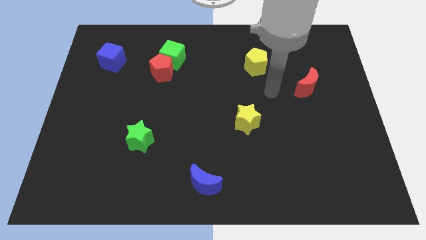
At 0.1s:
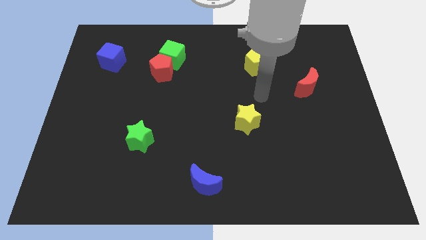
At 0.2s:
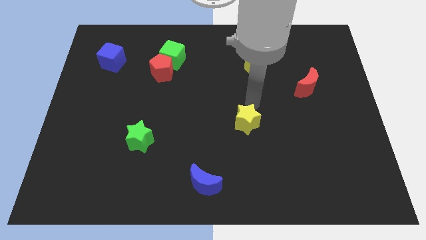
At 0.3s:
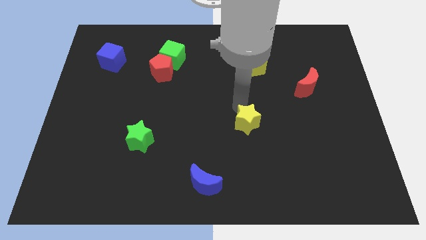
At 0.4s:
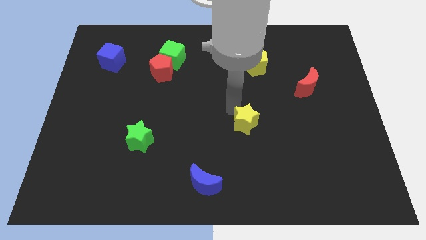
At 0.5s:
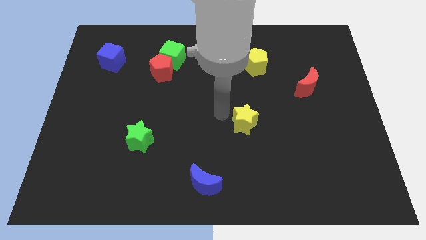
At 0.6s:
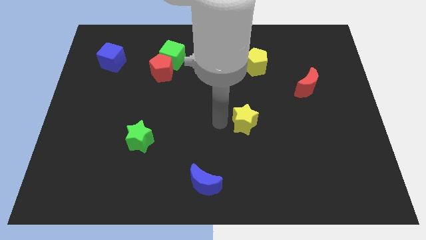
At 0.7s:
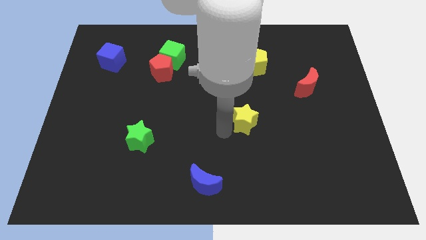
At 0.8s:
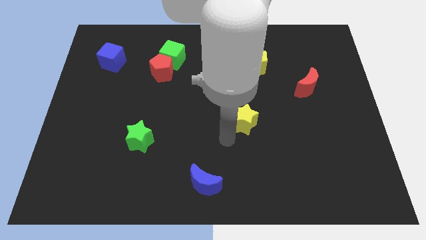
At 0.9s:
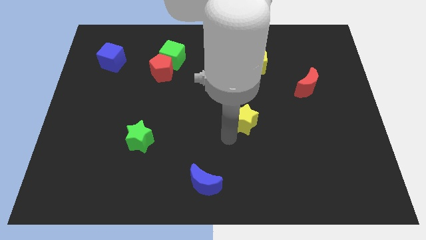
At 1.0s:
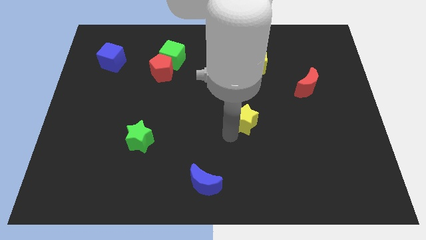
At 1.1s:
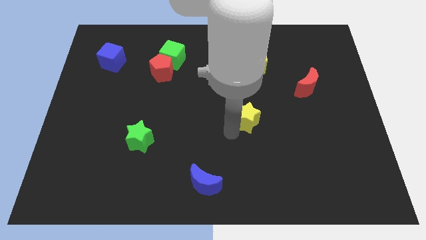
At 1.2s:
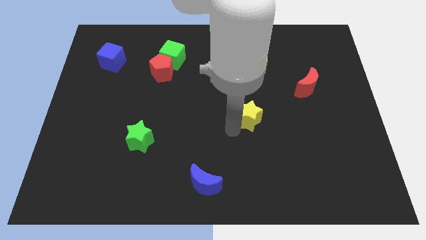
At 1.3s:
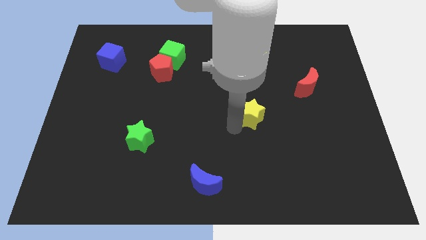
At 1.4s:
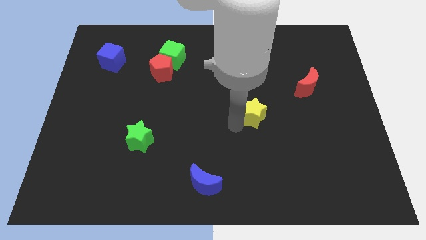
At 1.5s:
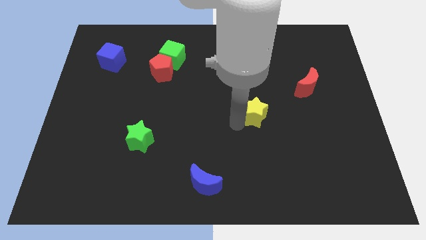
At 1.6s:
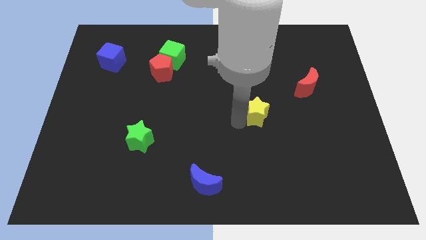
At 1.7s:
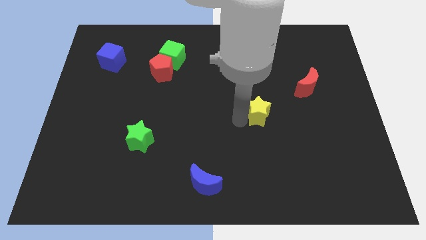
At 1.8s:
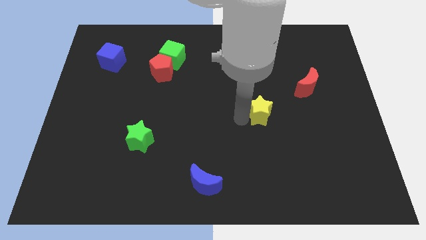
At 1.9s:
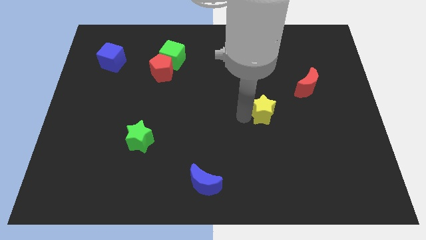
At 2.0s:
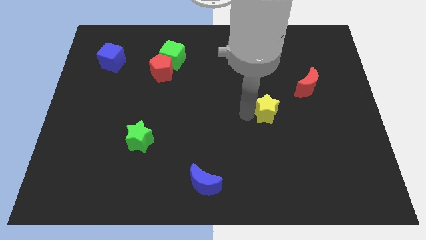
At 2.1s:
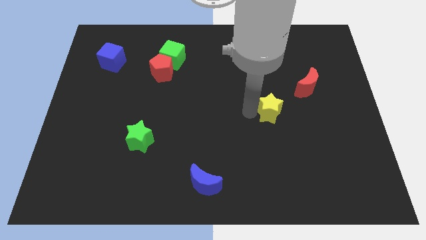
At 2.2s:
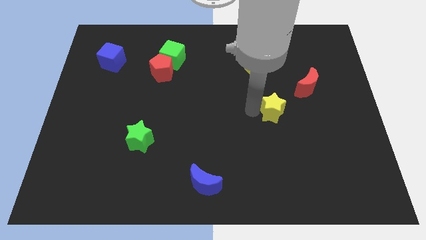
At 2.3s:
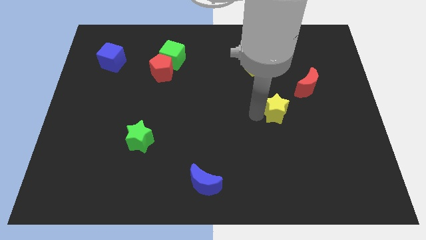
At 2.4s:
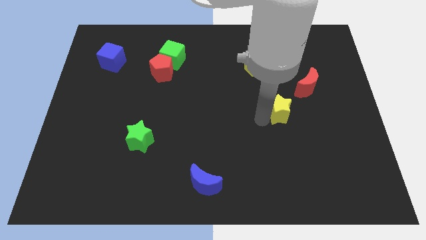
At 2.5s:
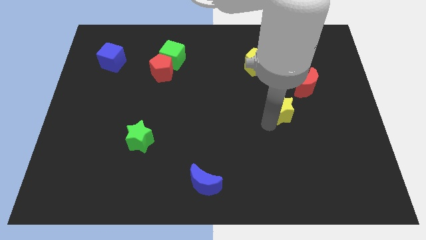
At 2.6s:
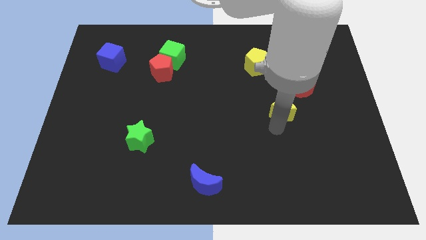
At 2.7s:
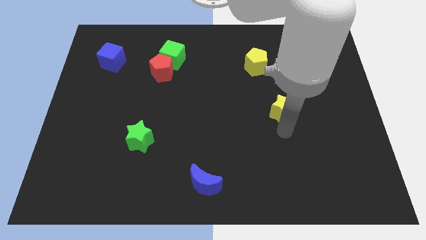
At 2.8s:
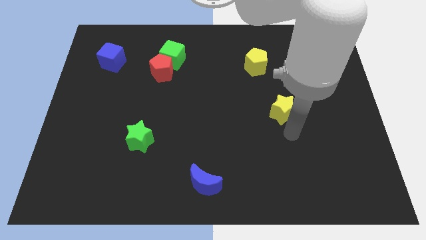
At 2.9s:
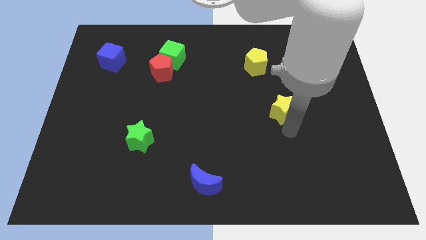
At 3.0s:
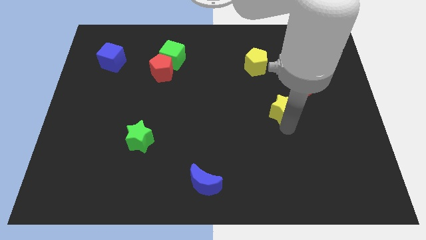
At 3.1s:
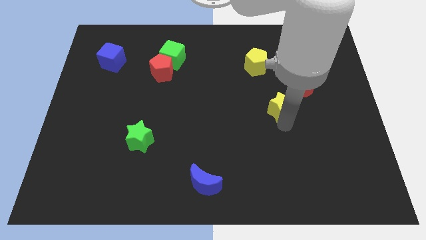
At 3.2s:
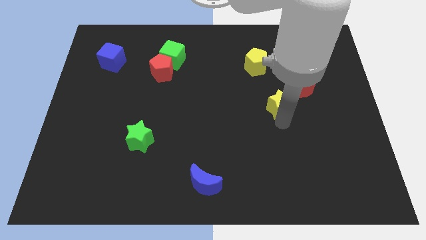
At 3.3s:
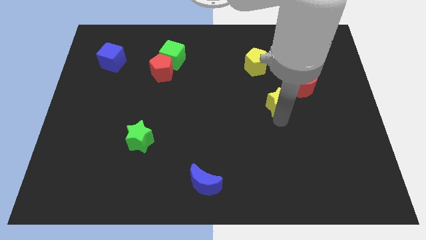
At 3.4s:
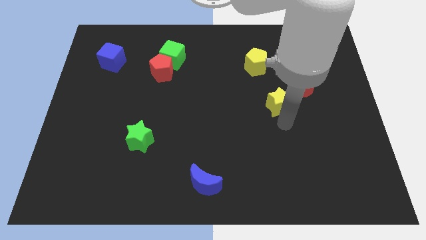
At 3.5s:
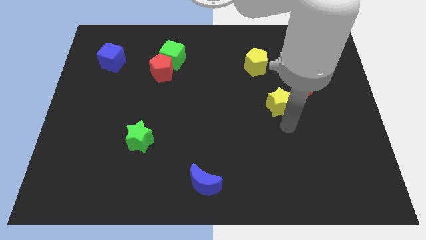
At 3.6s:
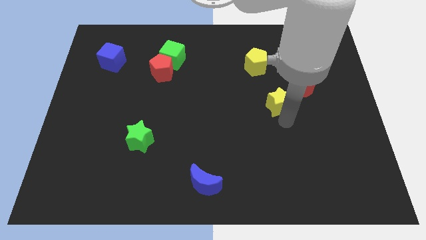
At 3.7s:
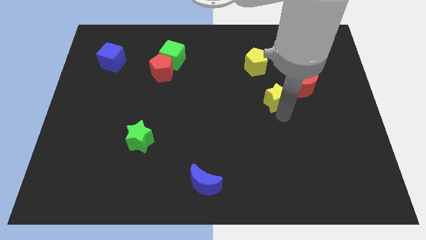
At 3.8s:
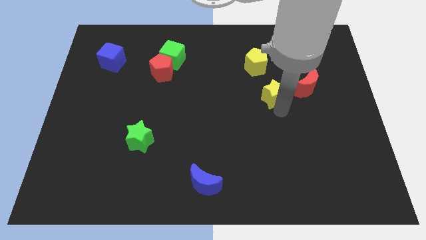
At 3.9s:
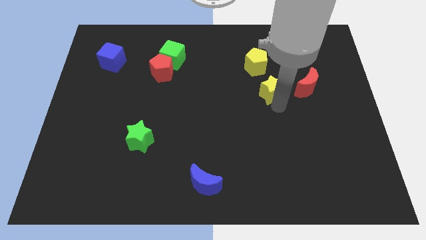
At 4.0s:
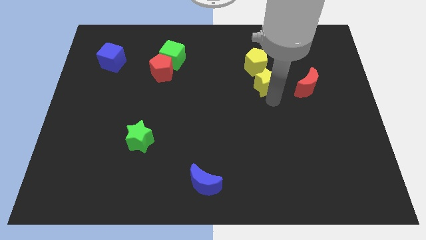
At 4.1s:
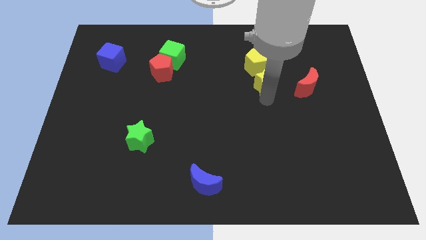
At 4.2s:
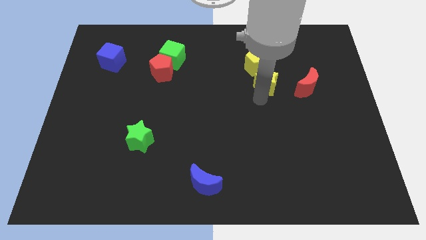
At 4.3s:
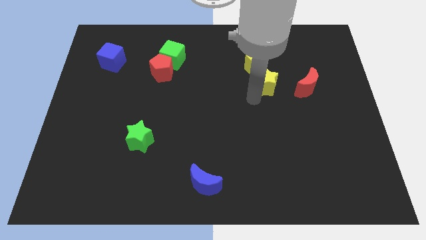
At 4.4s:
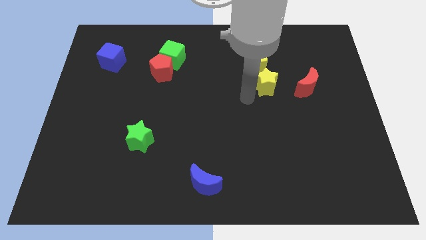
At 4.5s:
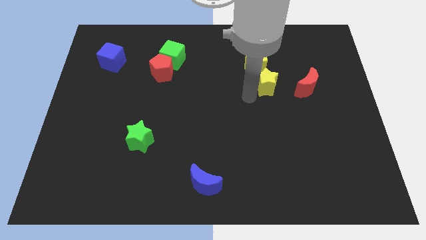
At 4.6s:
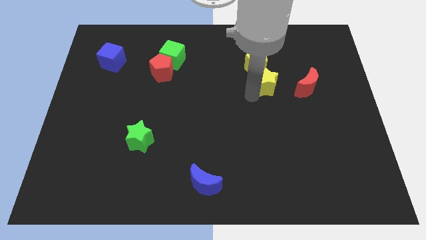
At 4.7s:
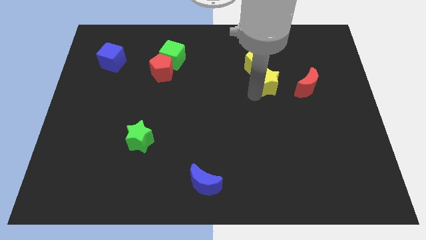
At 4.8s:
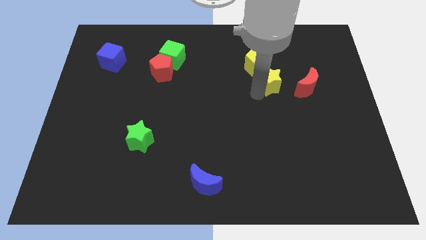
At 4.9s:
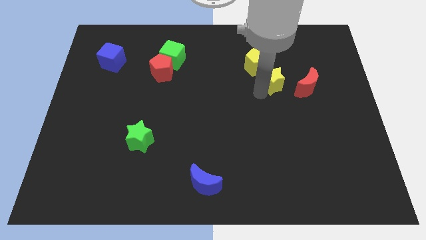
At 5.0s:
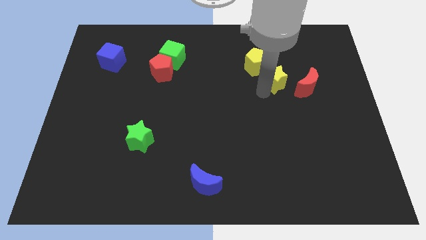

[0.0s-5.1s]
move the yellow star to the top left of the red moon

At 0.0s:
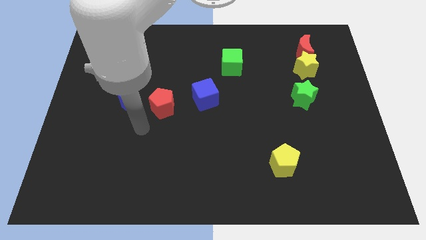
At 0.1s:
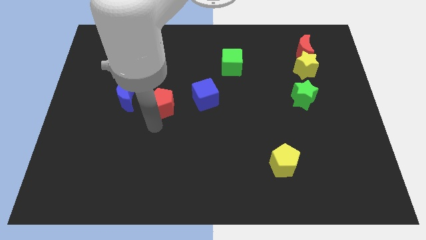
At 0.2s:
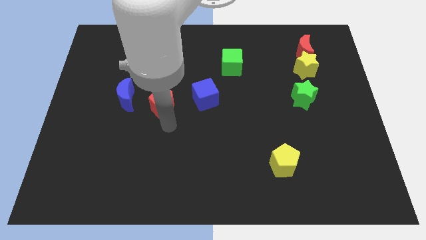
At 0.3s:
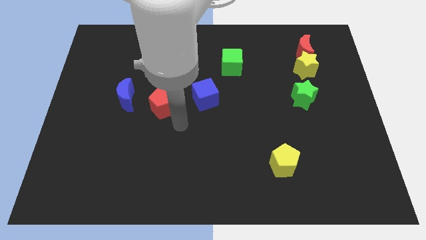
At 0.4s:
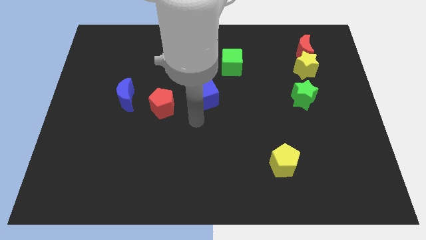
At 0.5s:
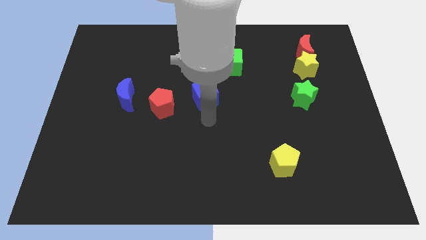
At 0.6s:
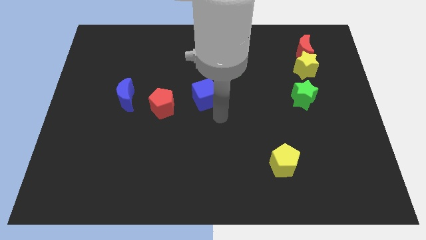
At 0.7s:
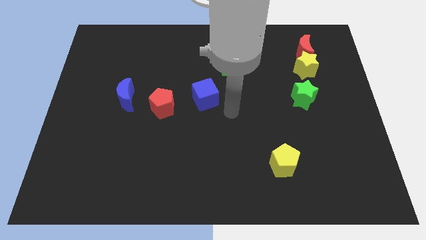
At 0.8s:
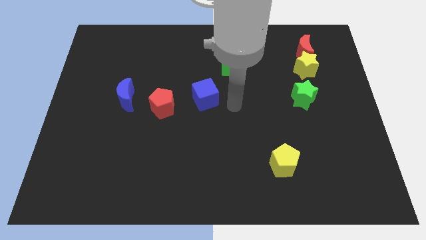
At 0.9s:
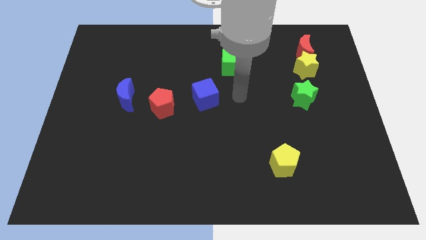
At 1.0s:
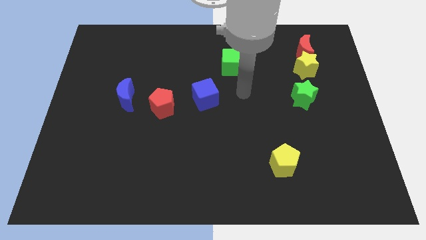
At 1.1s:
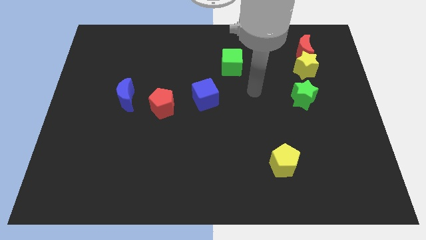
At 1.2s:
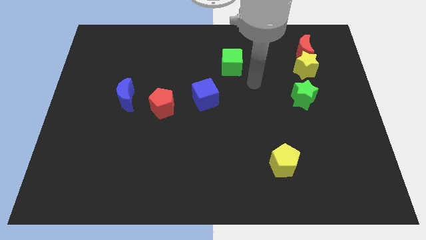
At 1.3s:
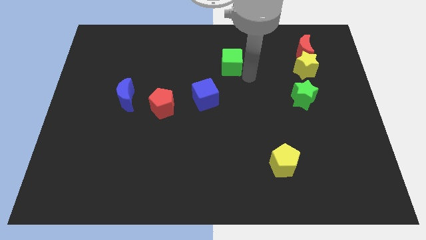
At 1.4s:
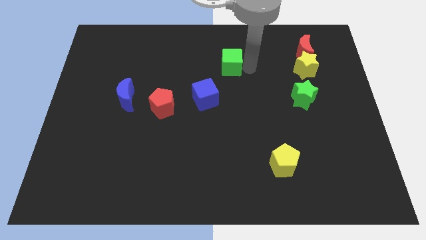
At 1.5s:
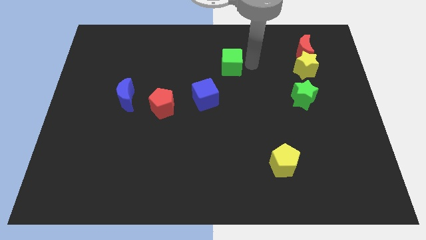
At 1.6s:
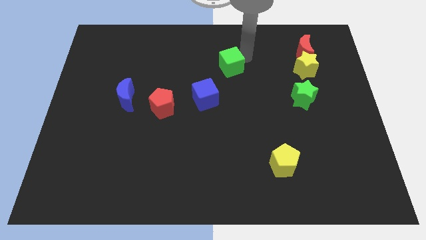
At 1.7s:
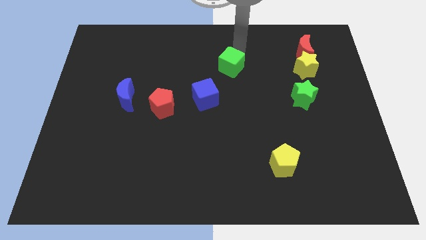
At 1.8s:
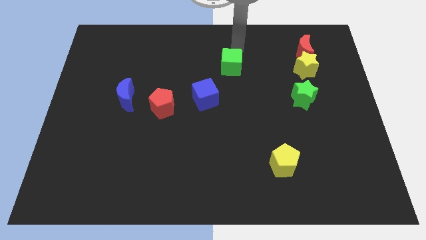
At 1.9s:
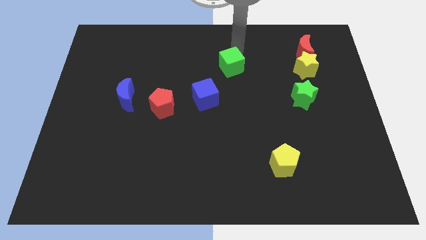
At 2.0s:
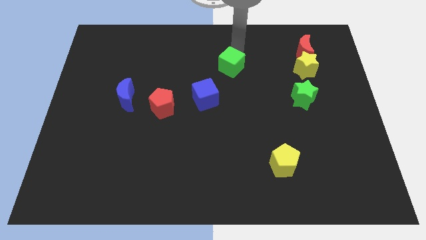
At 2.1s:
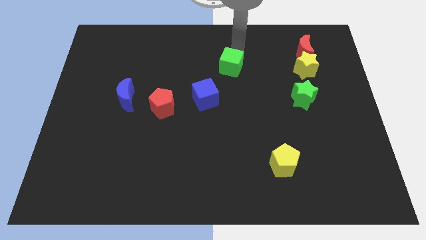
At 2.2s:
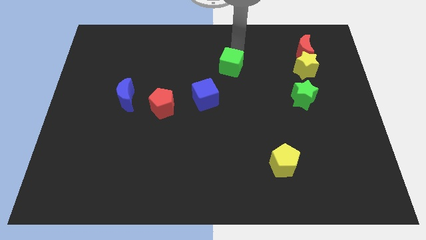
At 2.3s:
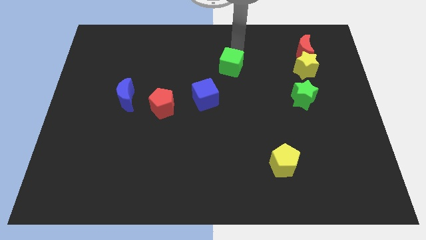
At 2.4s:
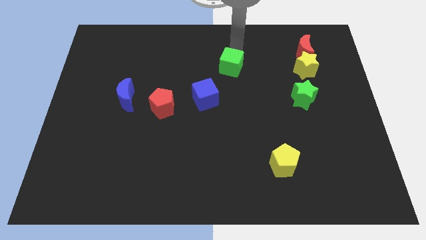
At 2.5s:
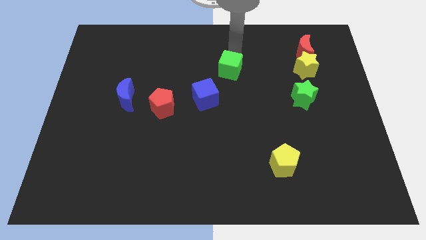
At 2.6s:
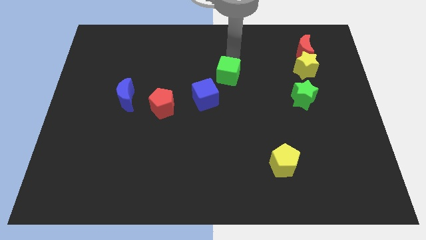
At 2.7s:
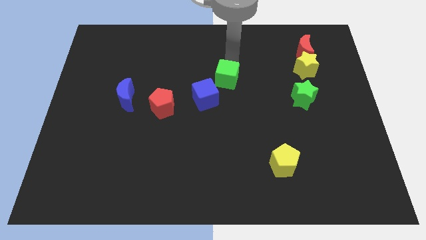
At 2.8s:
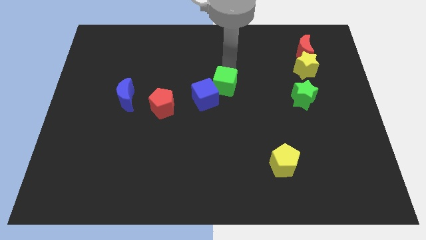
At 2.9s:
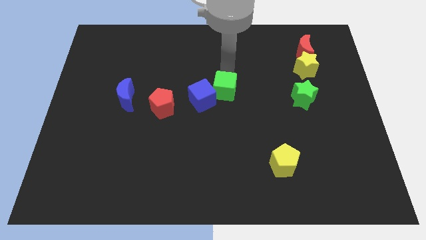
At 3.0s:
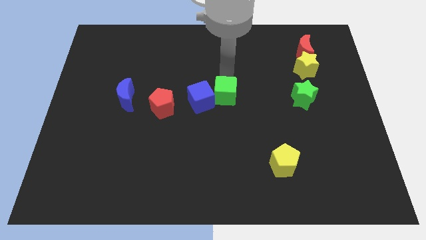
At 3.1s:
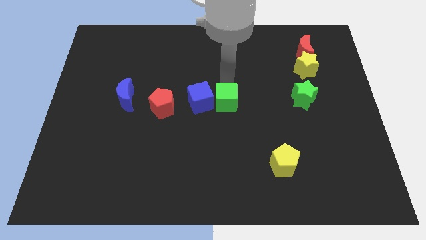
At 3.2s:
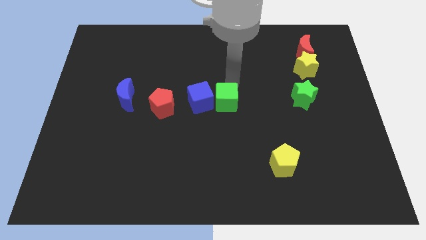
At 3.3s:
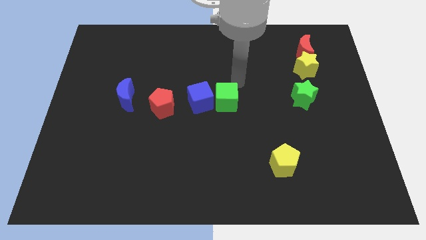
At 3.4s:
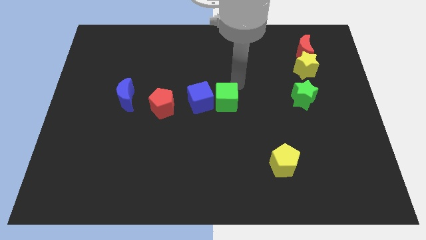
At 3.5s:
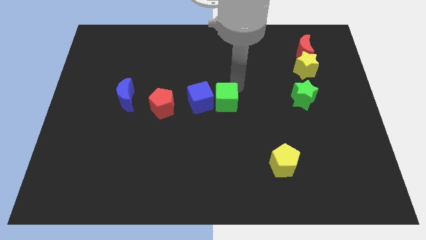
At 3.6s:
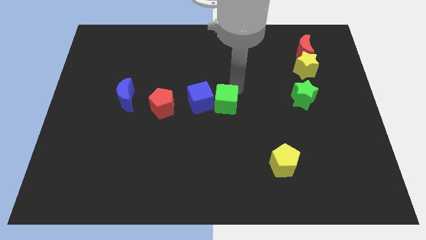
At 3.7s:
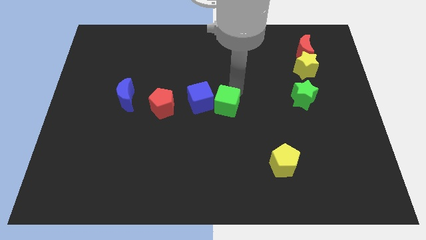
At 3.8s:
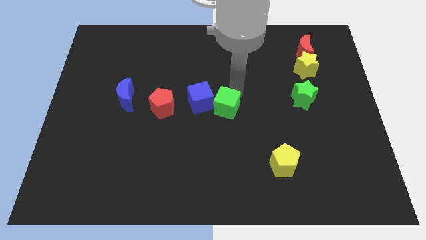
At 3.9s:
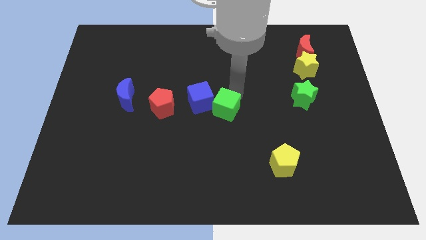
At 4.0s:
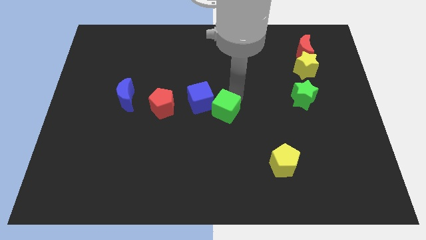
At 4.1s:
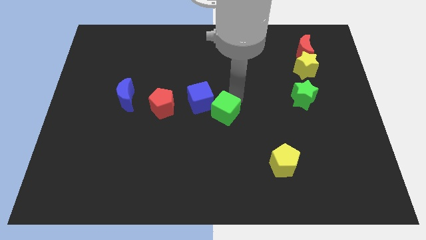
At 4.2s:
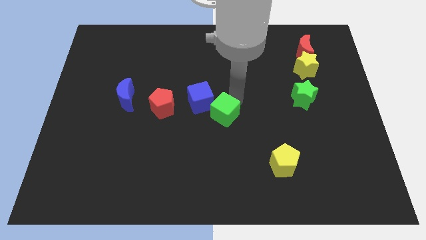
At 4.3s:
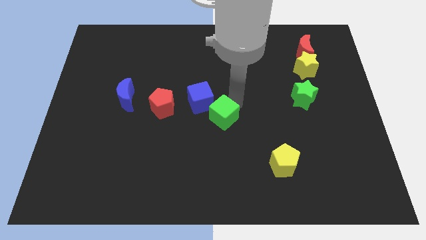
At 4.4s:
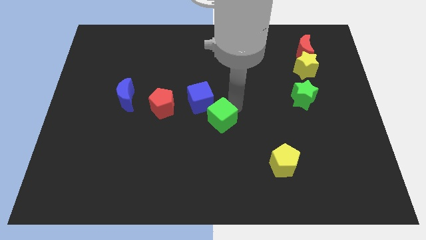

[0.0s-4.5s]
put the green cube below the blue cube
